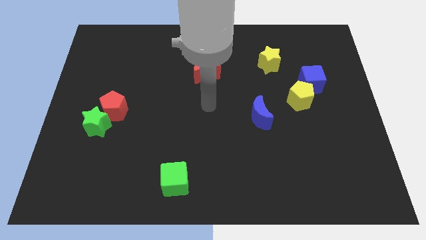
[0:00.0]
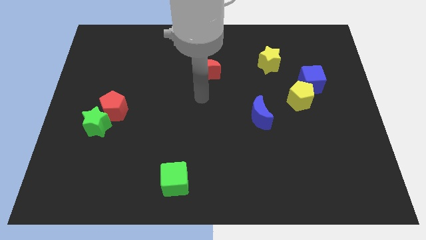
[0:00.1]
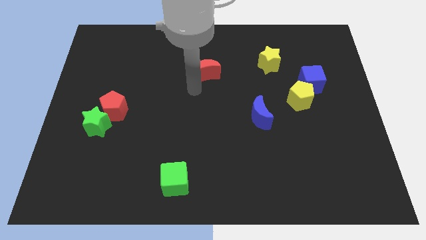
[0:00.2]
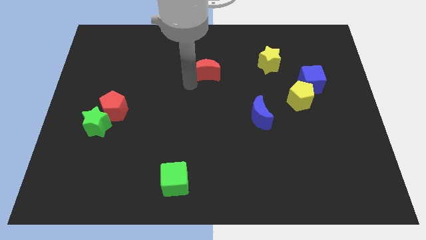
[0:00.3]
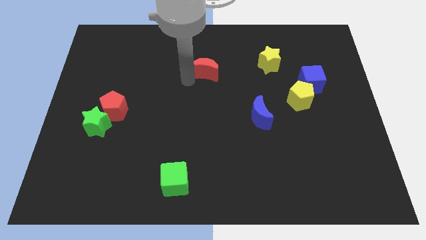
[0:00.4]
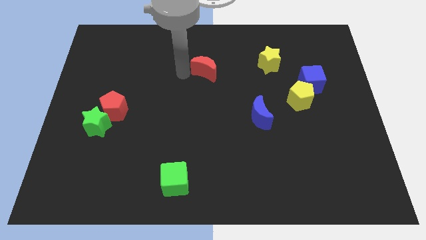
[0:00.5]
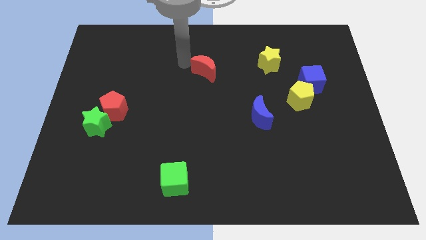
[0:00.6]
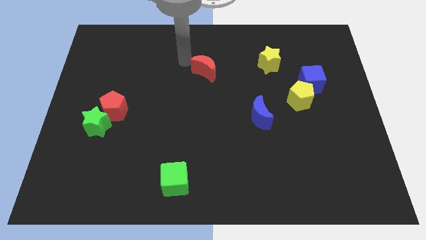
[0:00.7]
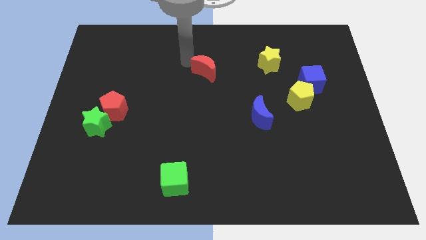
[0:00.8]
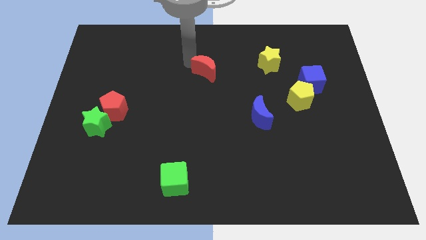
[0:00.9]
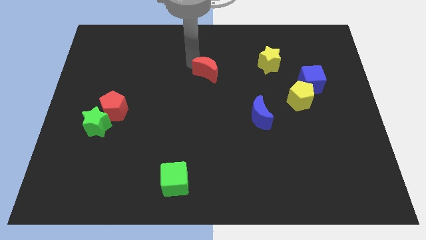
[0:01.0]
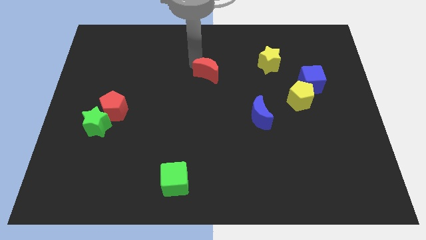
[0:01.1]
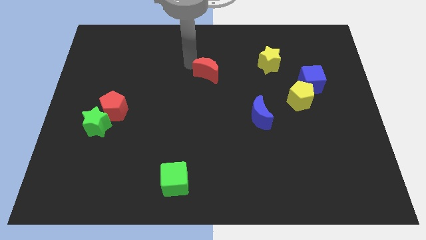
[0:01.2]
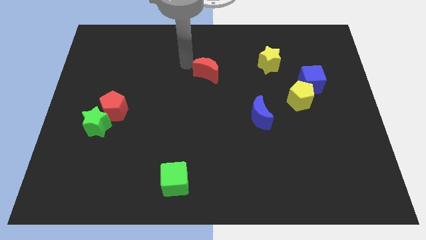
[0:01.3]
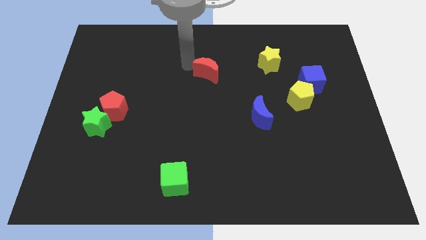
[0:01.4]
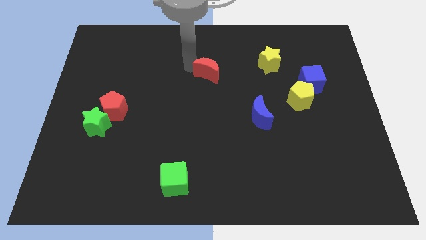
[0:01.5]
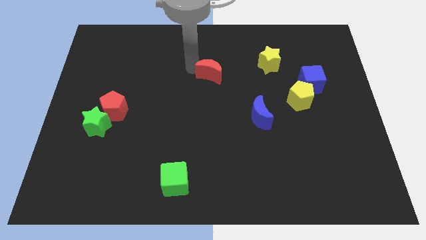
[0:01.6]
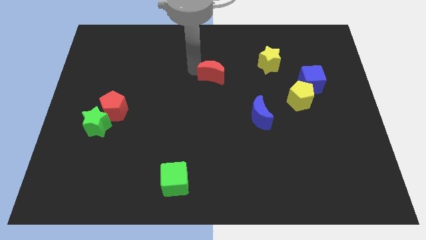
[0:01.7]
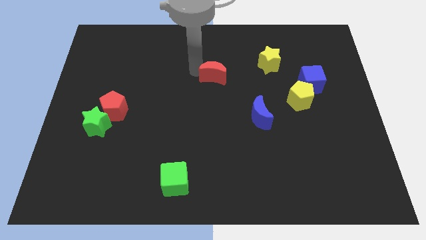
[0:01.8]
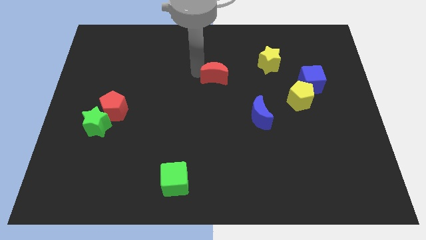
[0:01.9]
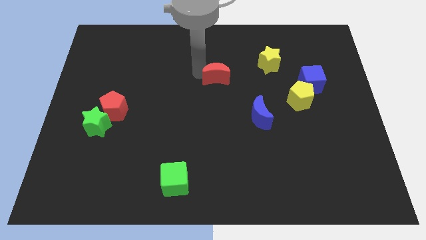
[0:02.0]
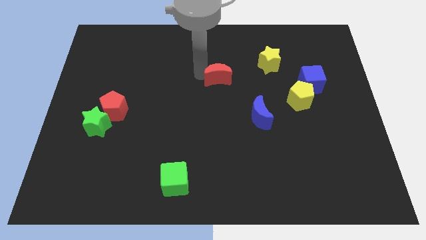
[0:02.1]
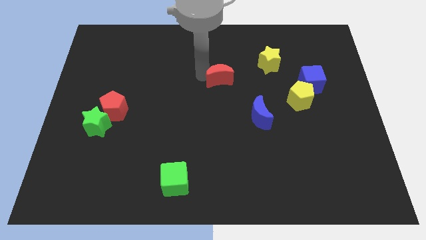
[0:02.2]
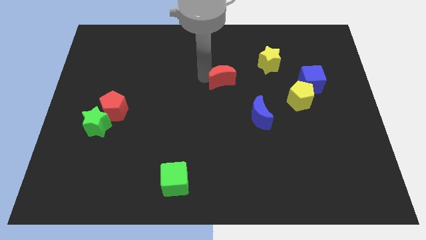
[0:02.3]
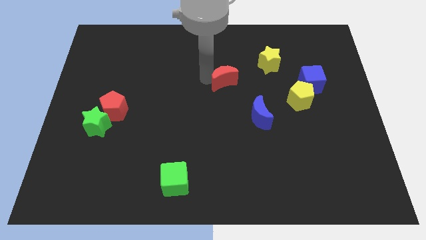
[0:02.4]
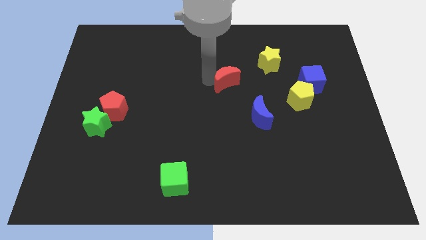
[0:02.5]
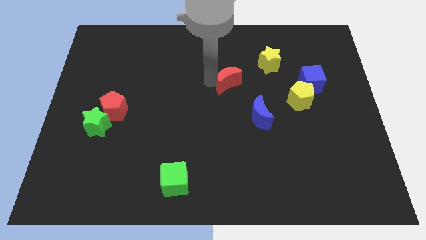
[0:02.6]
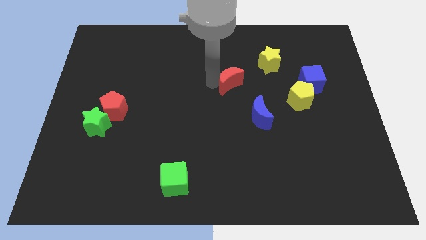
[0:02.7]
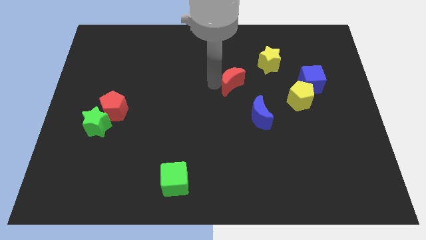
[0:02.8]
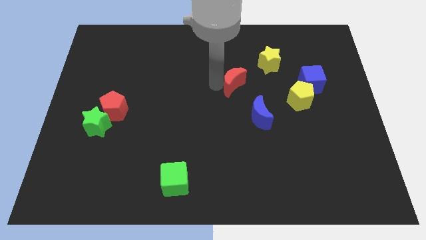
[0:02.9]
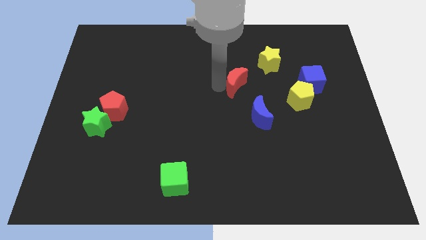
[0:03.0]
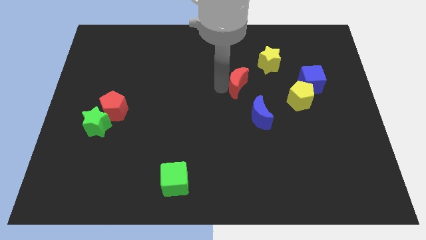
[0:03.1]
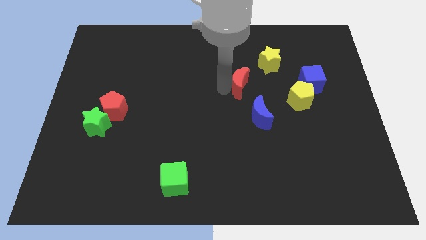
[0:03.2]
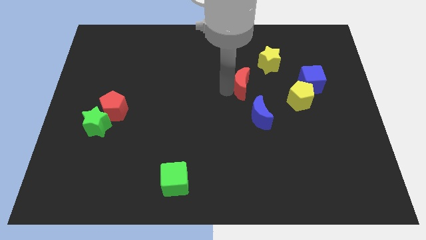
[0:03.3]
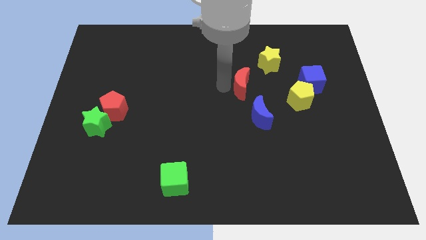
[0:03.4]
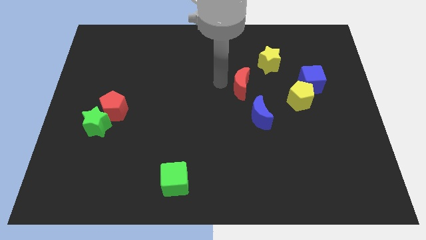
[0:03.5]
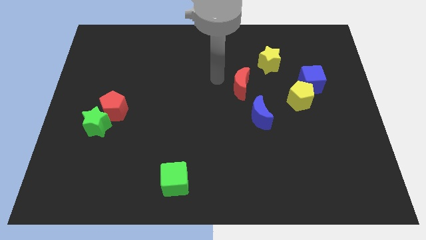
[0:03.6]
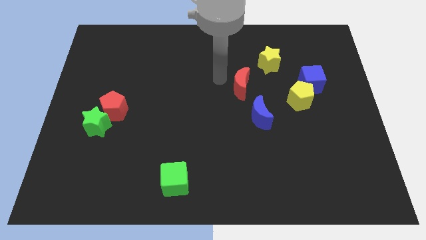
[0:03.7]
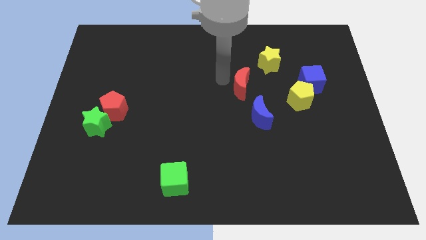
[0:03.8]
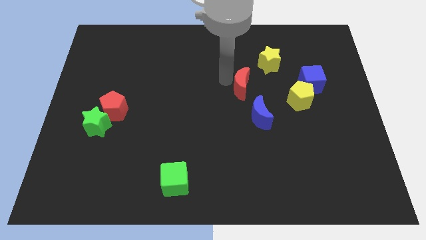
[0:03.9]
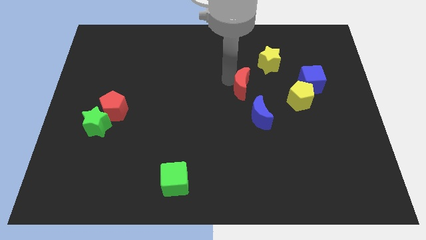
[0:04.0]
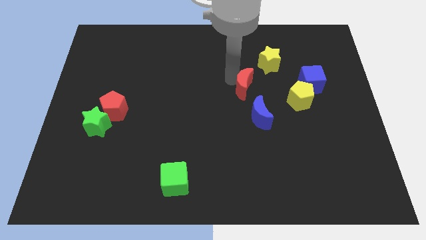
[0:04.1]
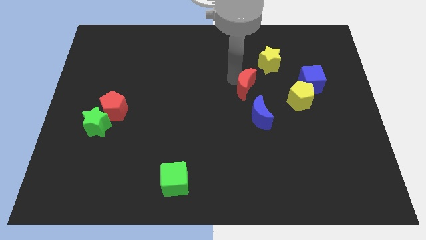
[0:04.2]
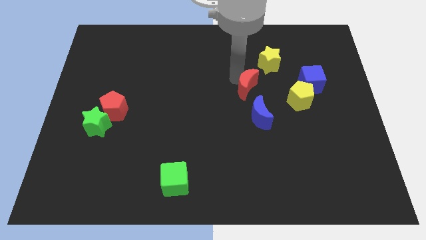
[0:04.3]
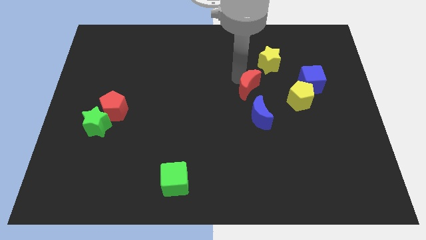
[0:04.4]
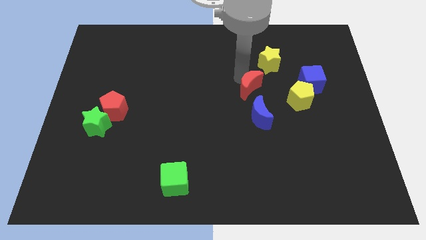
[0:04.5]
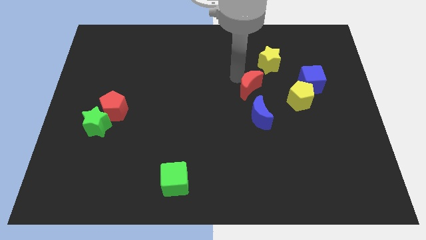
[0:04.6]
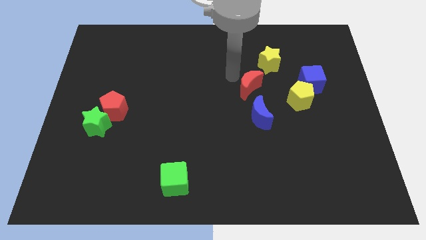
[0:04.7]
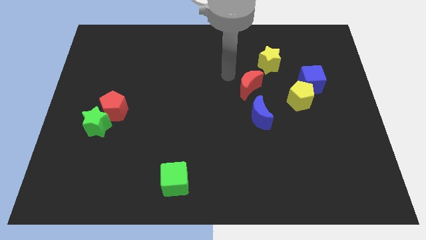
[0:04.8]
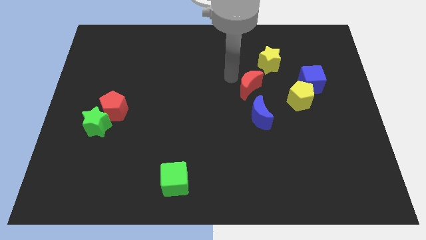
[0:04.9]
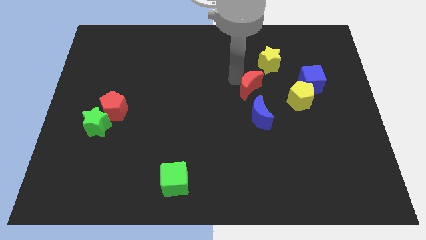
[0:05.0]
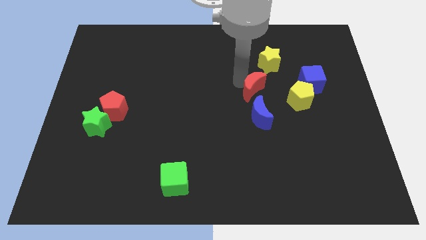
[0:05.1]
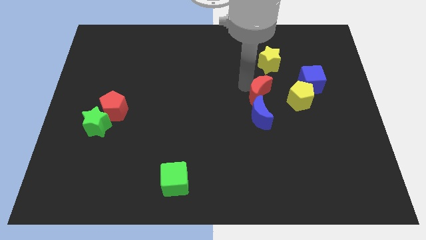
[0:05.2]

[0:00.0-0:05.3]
move the red moon to the top right of the blue moon

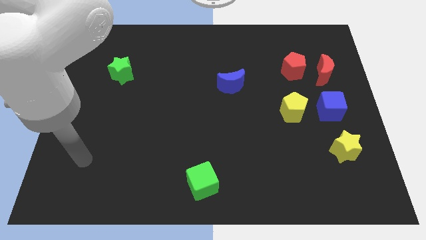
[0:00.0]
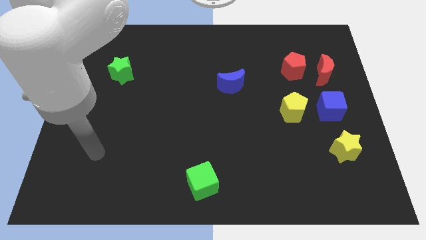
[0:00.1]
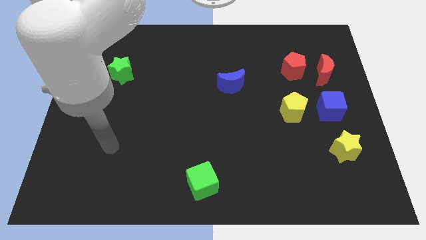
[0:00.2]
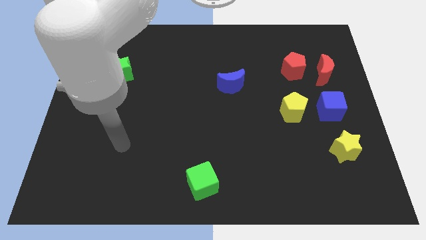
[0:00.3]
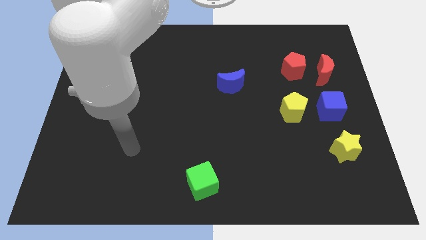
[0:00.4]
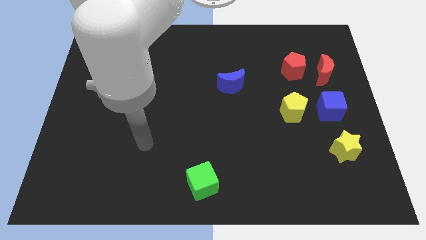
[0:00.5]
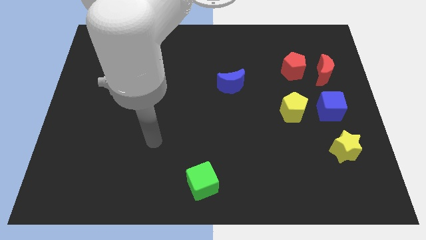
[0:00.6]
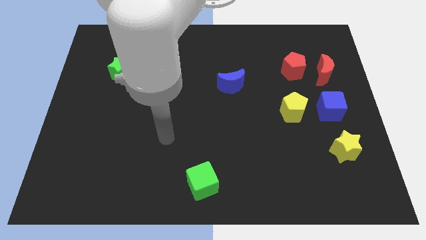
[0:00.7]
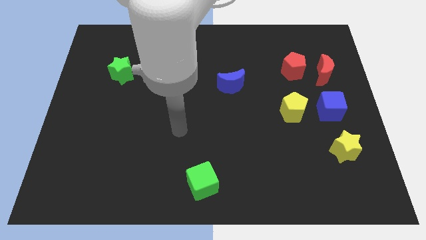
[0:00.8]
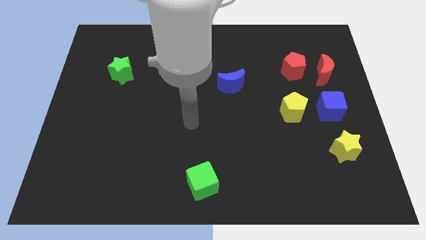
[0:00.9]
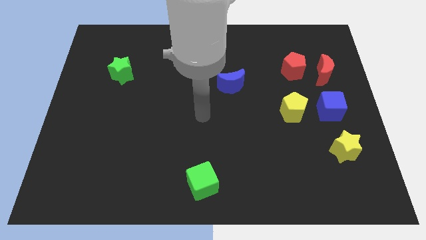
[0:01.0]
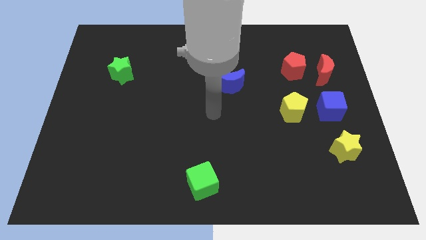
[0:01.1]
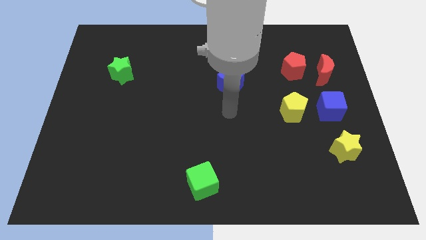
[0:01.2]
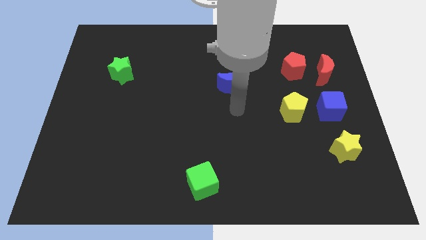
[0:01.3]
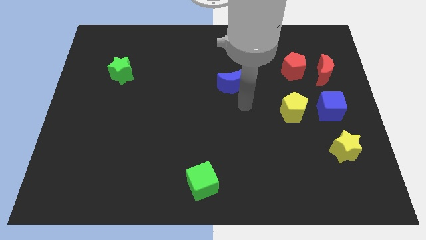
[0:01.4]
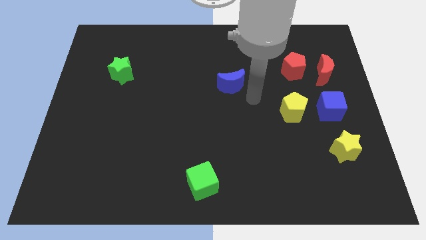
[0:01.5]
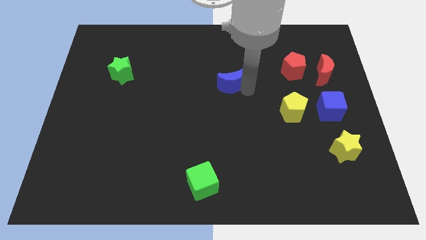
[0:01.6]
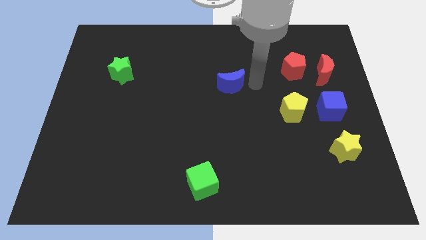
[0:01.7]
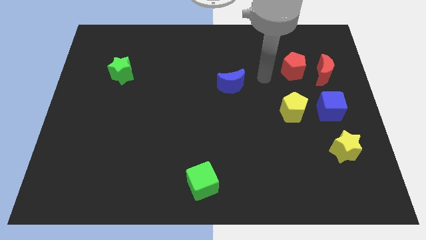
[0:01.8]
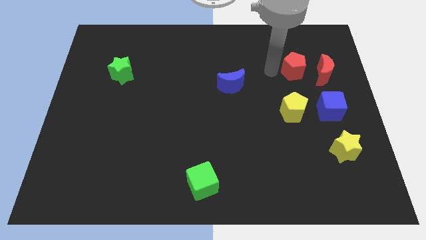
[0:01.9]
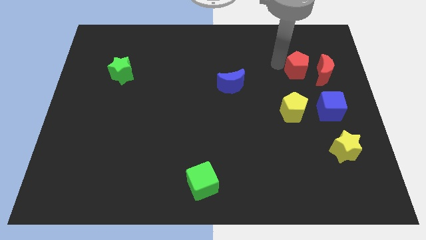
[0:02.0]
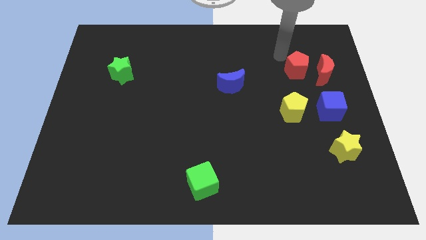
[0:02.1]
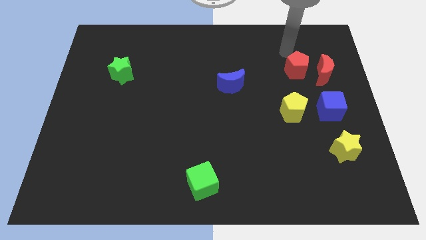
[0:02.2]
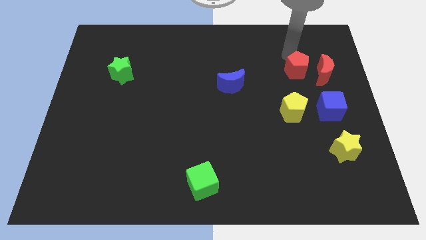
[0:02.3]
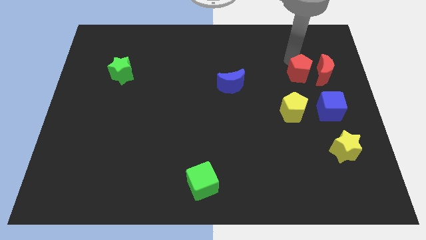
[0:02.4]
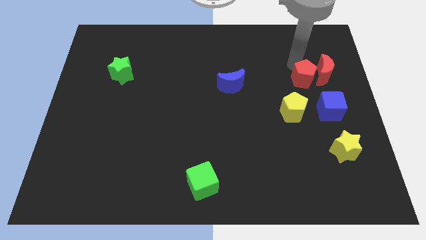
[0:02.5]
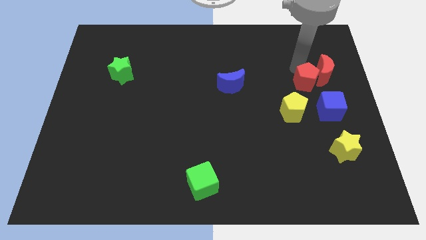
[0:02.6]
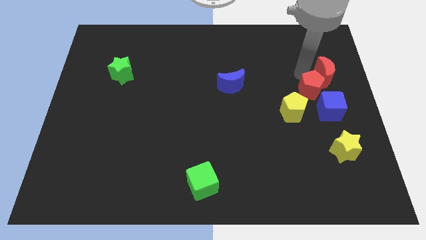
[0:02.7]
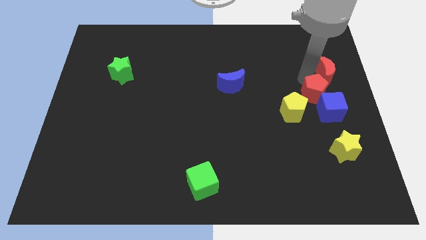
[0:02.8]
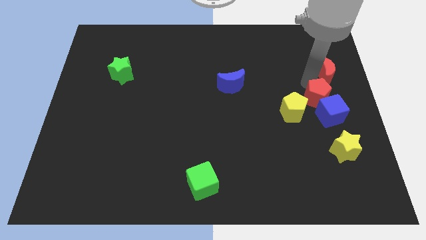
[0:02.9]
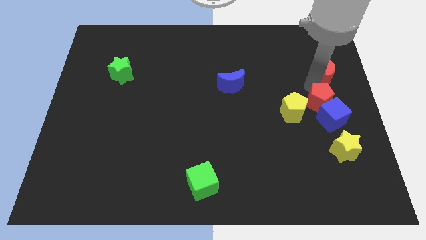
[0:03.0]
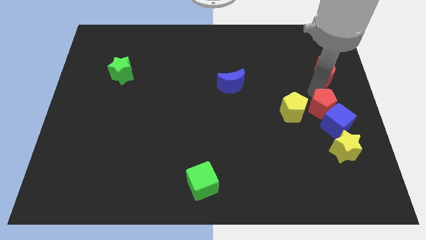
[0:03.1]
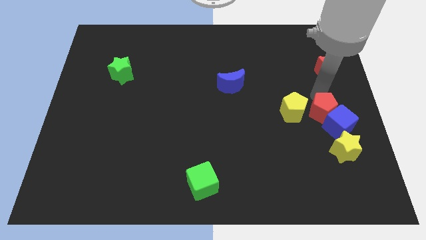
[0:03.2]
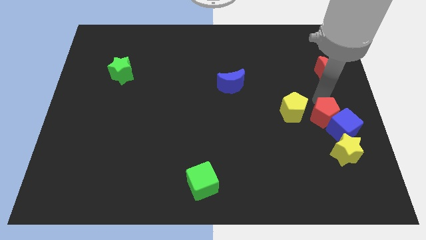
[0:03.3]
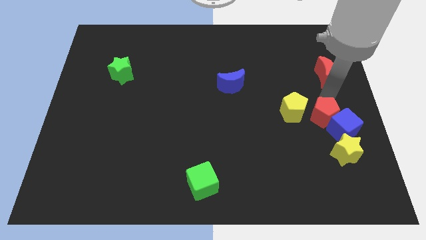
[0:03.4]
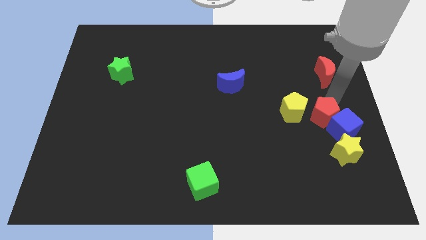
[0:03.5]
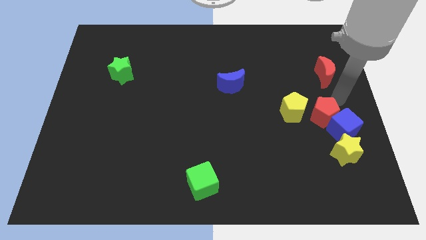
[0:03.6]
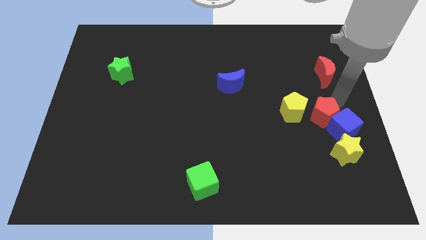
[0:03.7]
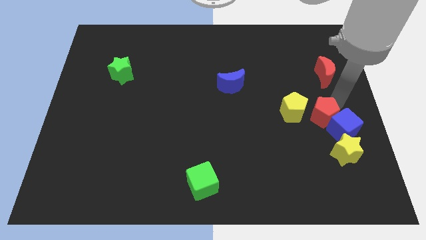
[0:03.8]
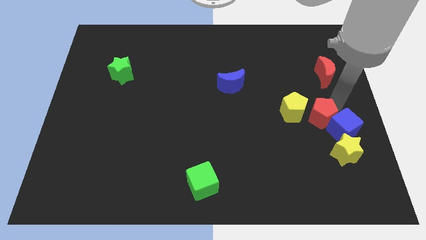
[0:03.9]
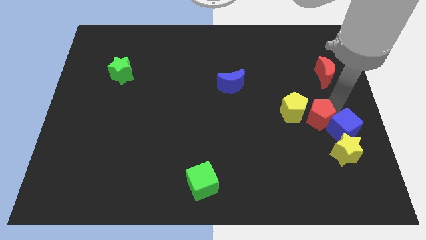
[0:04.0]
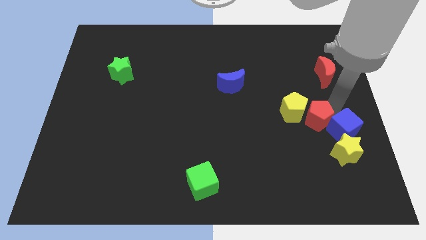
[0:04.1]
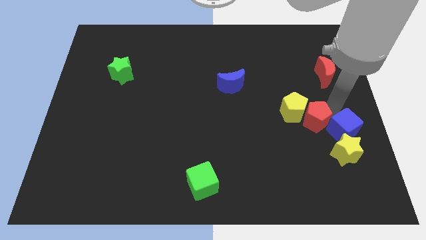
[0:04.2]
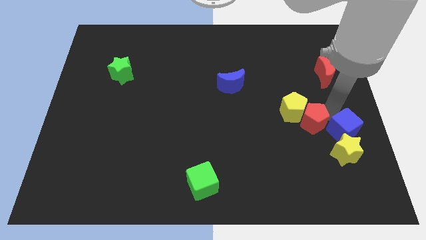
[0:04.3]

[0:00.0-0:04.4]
slide the red pentagon to the bottom side of the yellow pentagon
